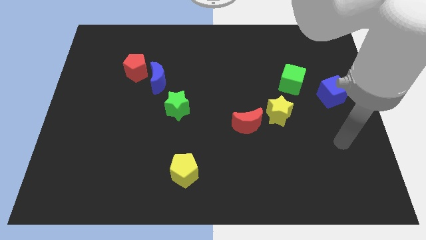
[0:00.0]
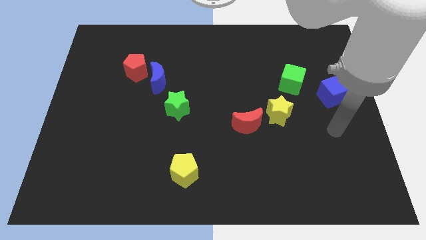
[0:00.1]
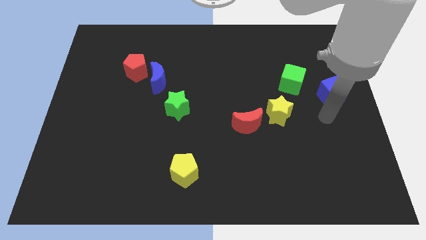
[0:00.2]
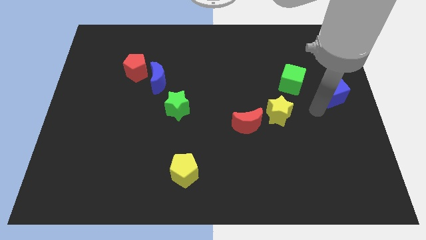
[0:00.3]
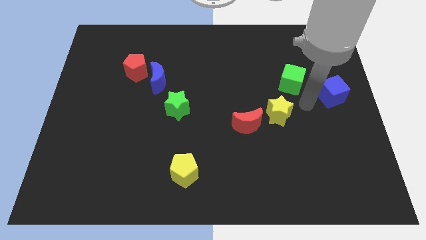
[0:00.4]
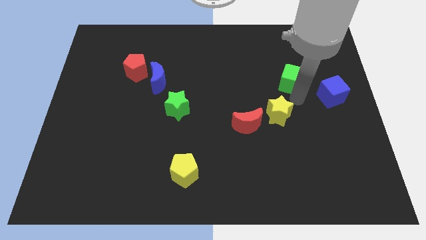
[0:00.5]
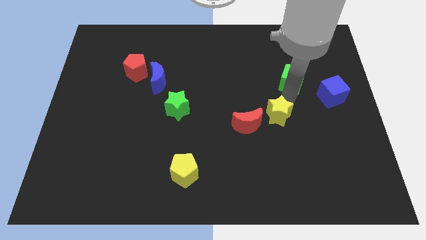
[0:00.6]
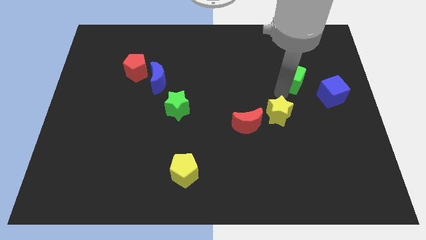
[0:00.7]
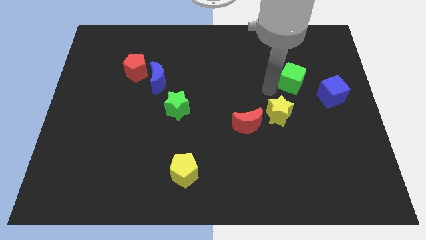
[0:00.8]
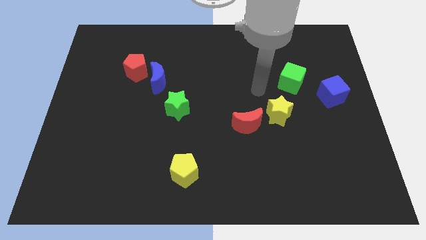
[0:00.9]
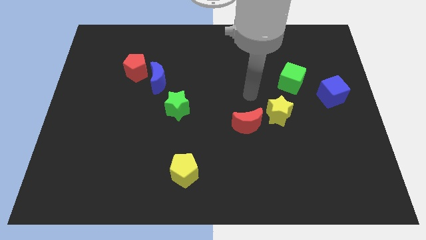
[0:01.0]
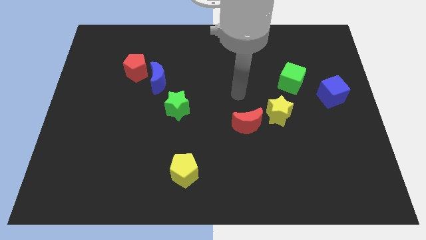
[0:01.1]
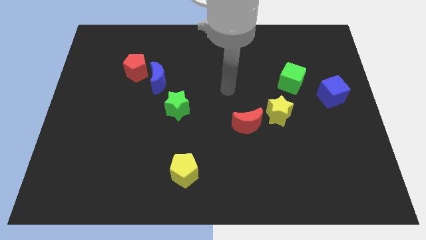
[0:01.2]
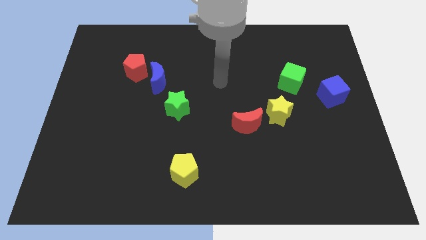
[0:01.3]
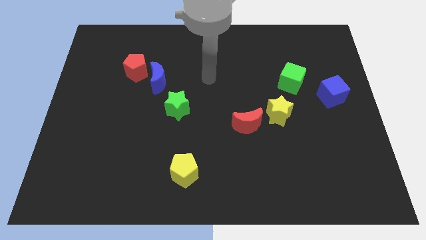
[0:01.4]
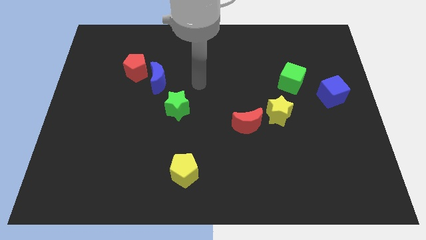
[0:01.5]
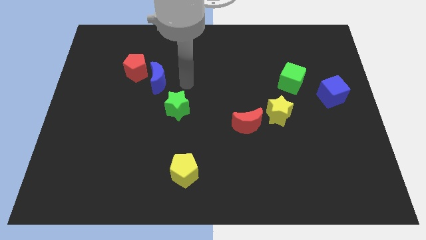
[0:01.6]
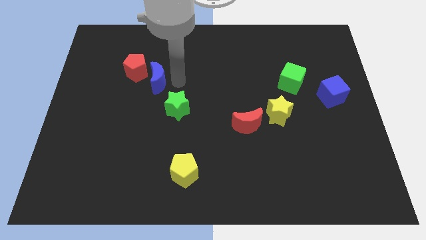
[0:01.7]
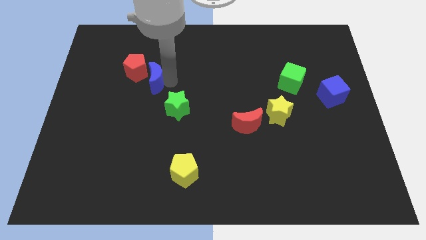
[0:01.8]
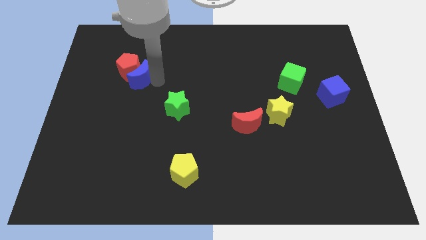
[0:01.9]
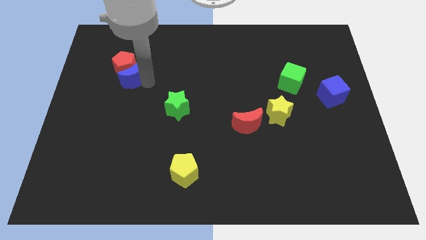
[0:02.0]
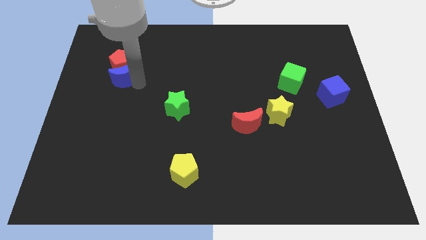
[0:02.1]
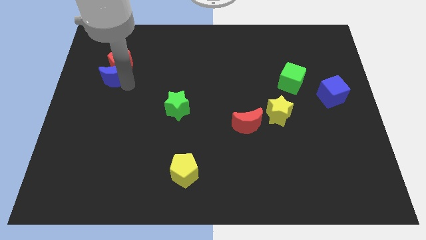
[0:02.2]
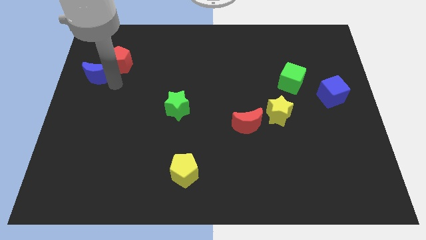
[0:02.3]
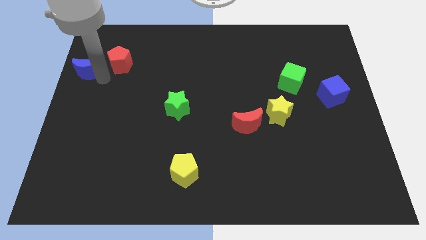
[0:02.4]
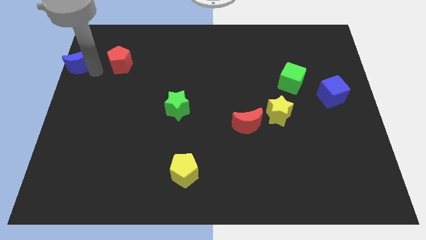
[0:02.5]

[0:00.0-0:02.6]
separate the red pentagon from the blue moon

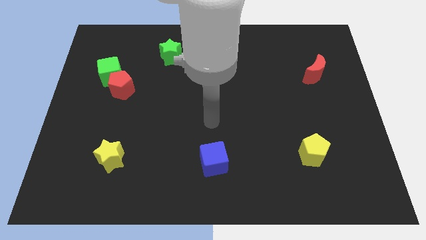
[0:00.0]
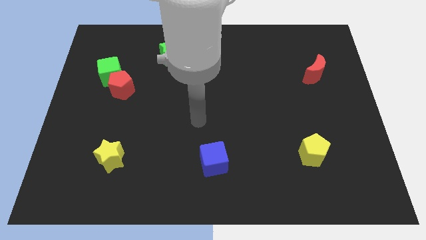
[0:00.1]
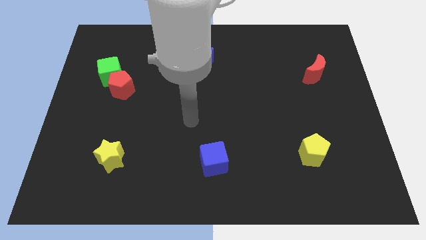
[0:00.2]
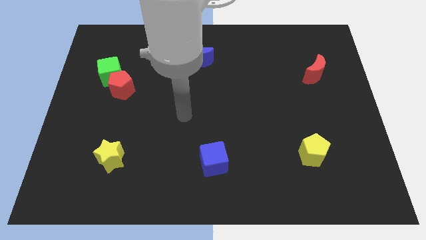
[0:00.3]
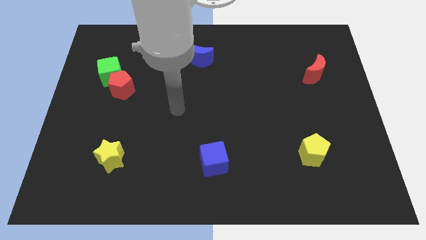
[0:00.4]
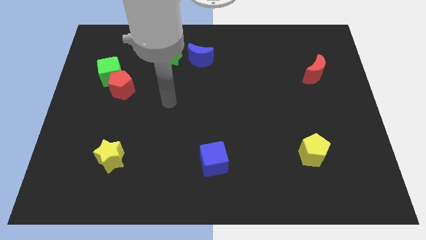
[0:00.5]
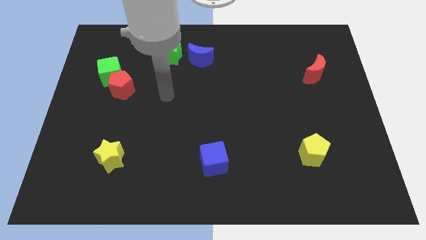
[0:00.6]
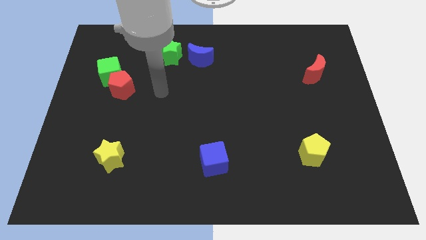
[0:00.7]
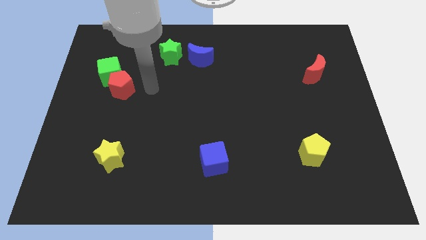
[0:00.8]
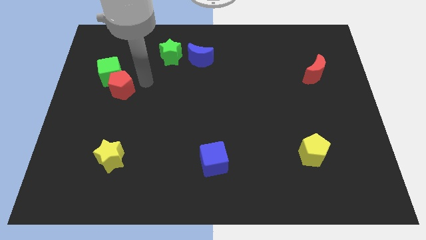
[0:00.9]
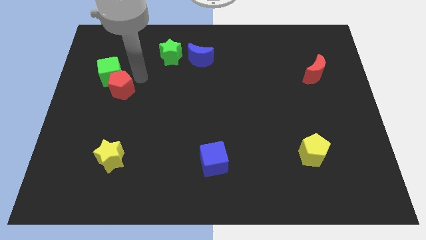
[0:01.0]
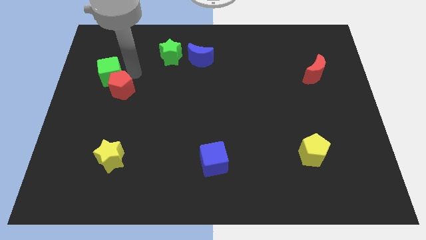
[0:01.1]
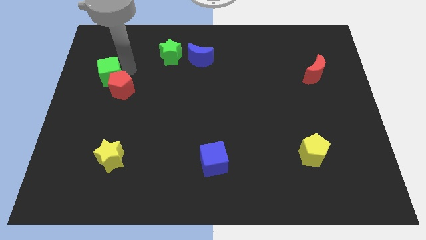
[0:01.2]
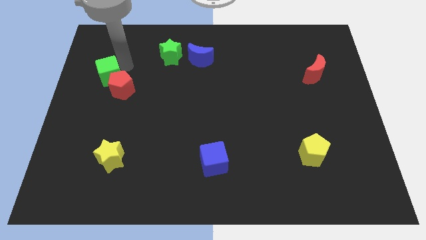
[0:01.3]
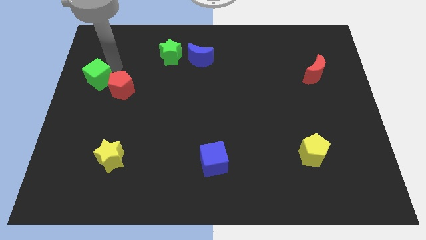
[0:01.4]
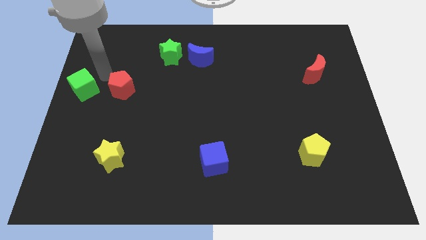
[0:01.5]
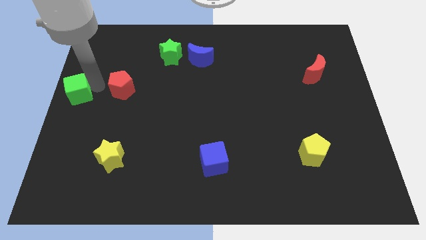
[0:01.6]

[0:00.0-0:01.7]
move the red pentagon away from the green cube

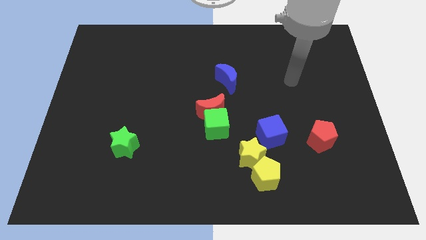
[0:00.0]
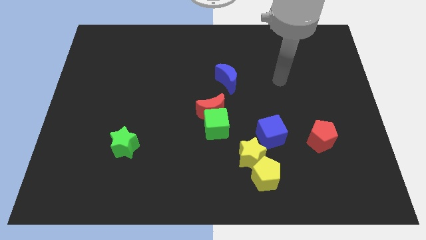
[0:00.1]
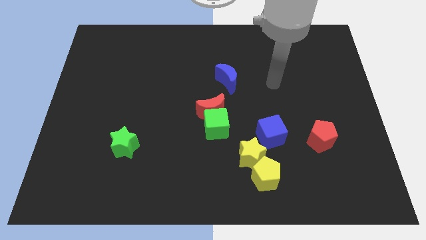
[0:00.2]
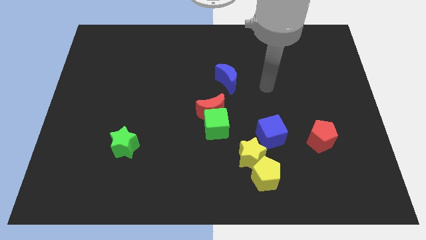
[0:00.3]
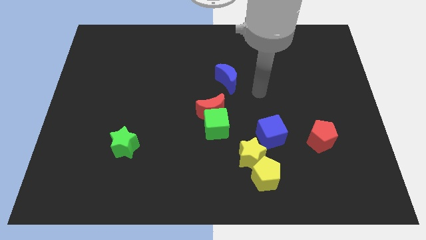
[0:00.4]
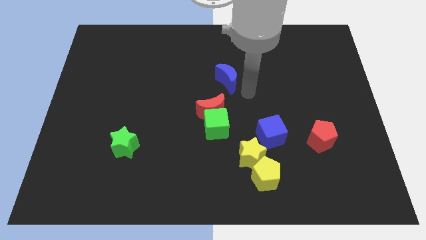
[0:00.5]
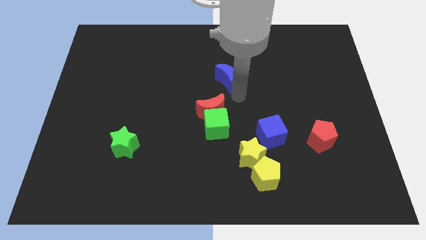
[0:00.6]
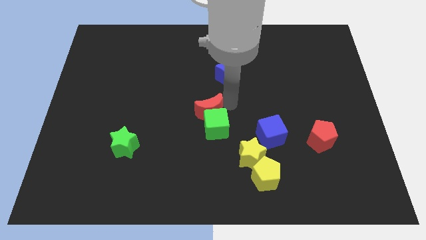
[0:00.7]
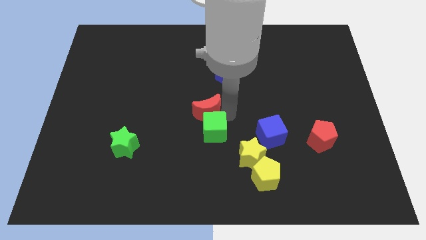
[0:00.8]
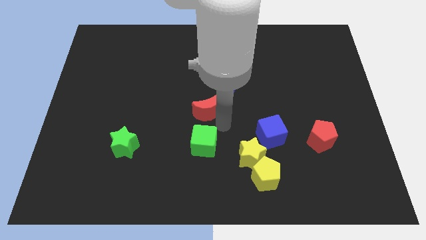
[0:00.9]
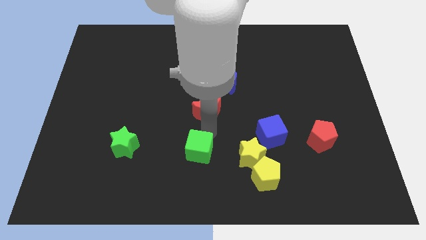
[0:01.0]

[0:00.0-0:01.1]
separate the red moon from the green cube

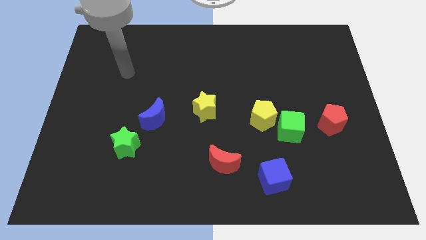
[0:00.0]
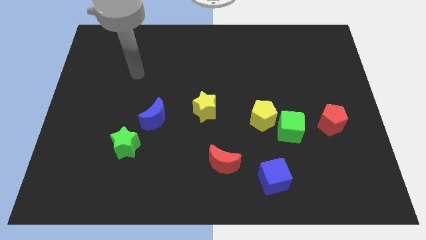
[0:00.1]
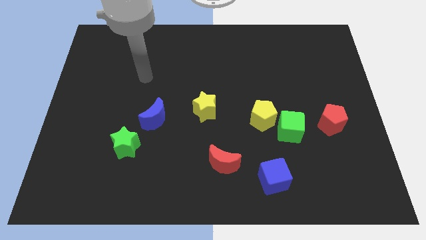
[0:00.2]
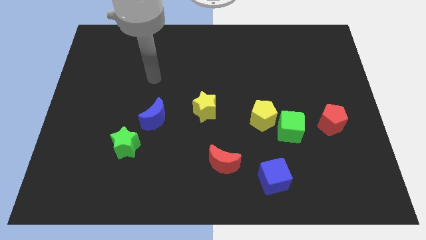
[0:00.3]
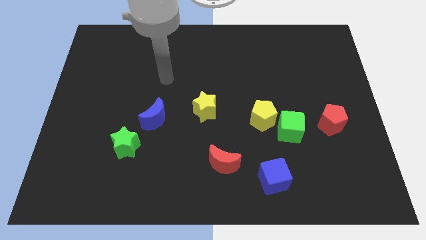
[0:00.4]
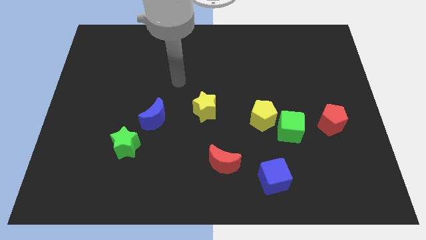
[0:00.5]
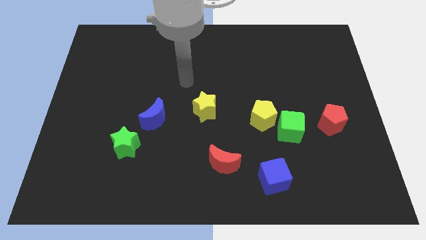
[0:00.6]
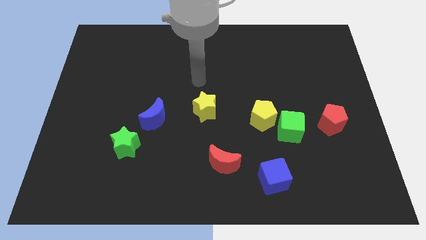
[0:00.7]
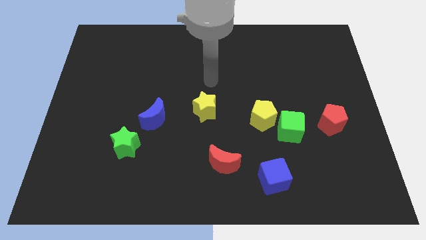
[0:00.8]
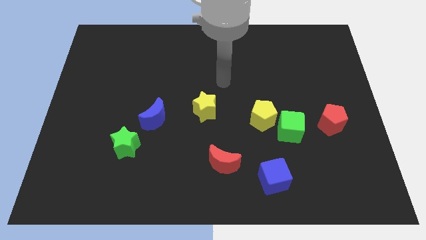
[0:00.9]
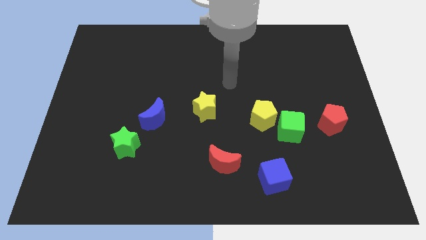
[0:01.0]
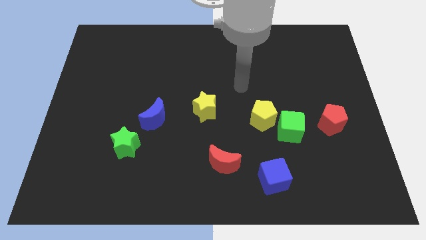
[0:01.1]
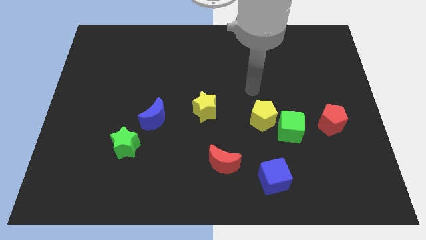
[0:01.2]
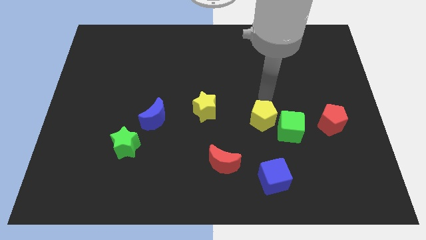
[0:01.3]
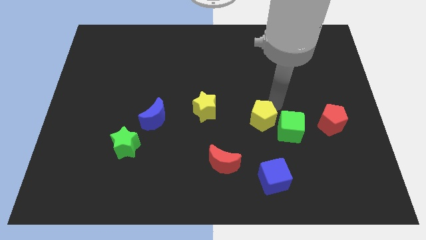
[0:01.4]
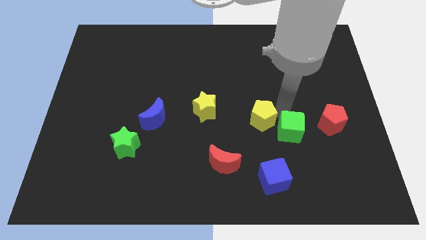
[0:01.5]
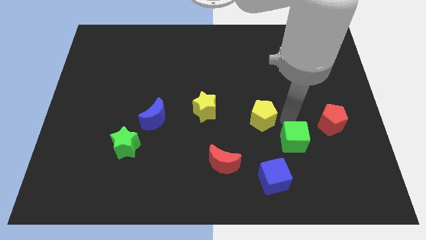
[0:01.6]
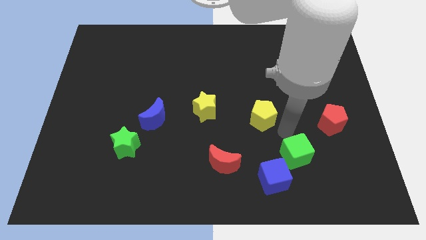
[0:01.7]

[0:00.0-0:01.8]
separate the yellow pentagon from the green cube

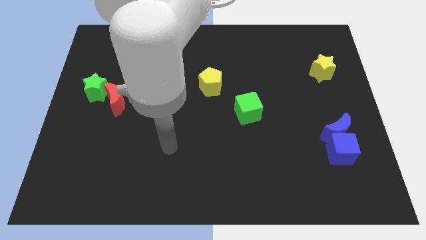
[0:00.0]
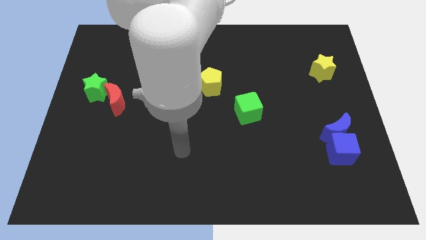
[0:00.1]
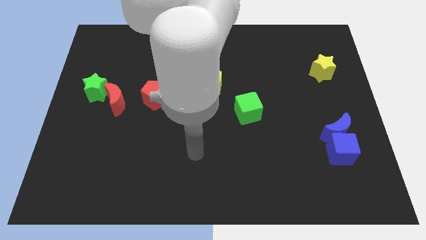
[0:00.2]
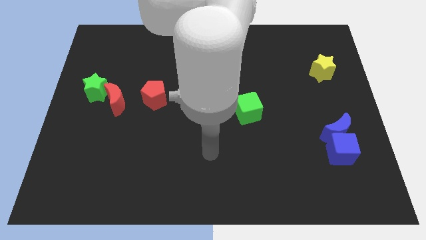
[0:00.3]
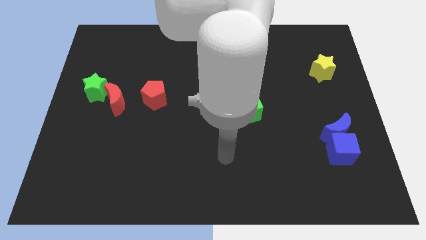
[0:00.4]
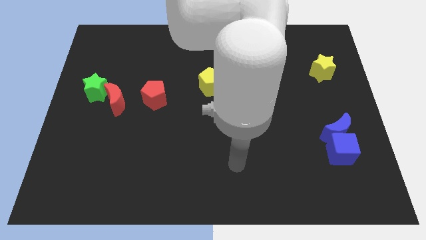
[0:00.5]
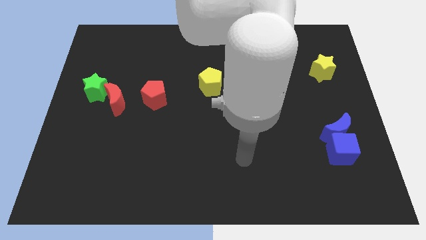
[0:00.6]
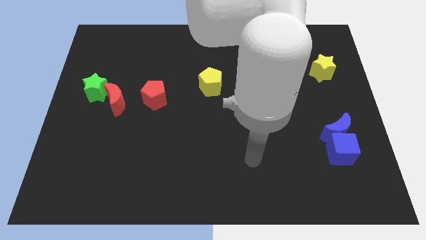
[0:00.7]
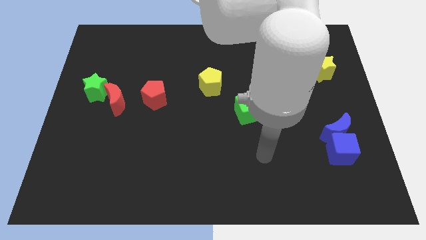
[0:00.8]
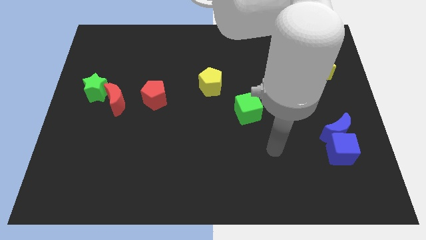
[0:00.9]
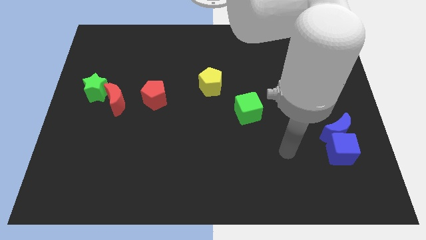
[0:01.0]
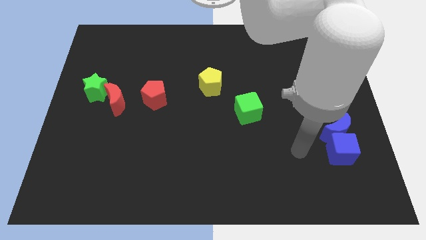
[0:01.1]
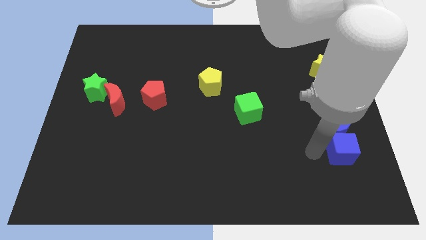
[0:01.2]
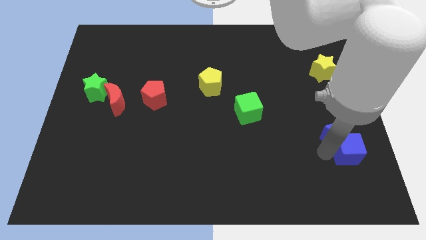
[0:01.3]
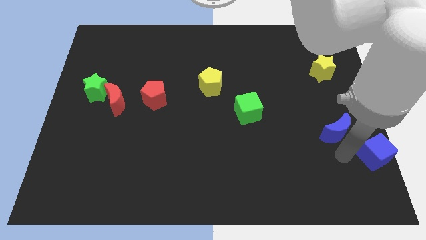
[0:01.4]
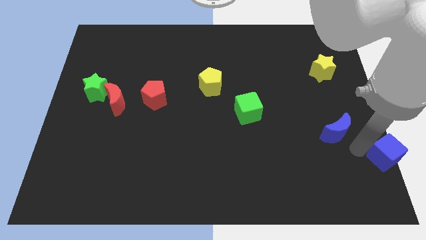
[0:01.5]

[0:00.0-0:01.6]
move the blue moon away from the blue cube

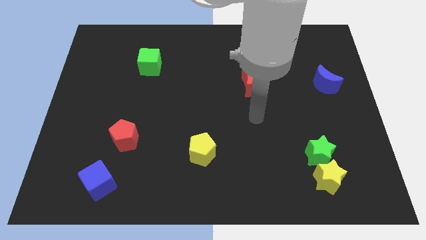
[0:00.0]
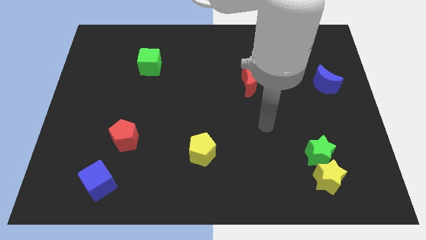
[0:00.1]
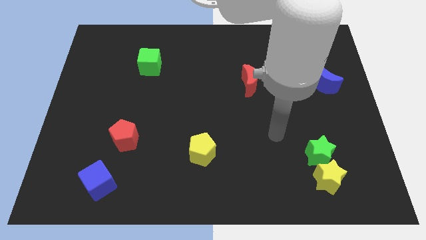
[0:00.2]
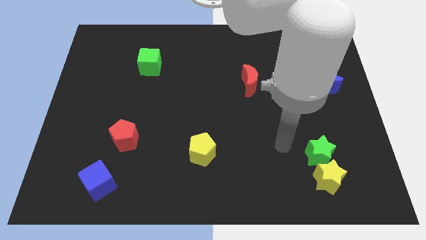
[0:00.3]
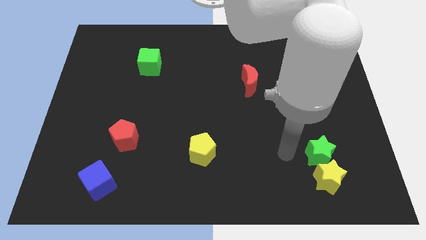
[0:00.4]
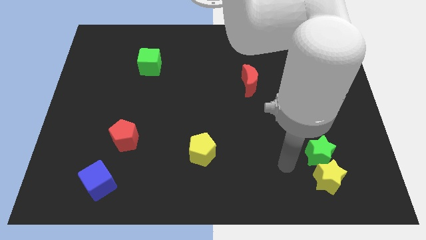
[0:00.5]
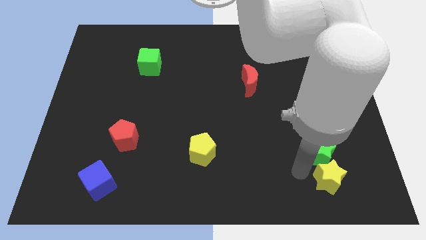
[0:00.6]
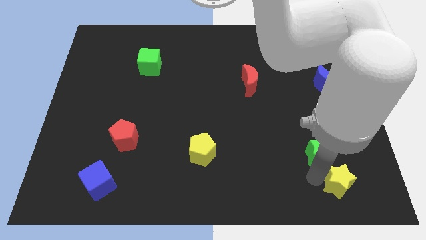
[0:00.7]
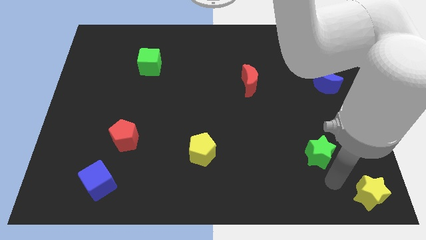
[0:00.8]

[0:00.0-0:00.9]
separate the green star from the yellow star
